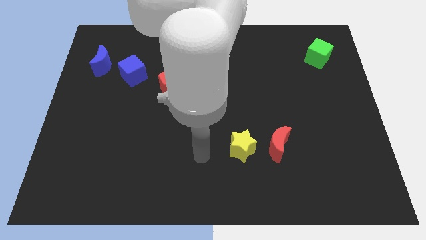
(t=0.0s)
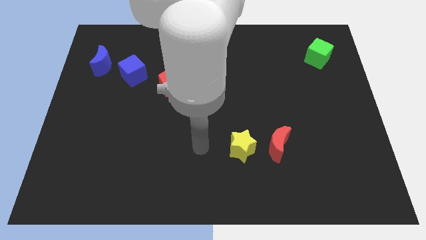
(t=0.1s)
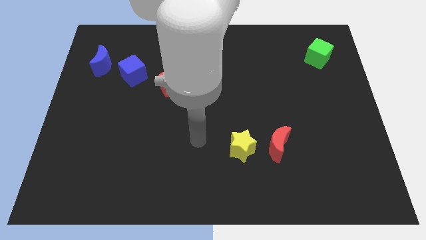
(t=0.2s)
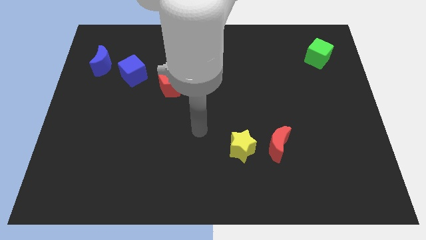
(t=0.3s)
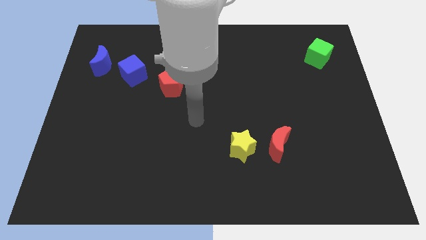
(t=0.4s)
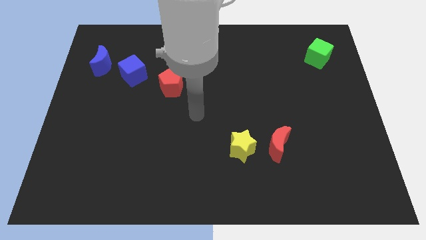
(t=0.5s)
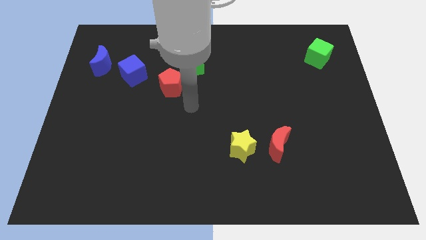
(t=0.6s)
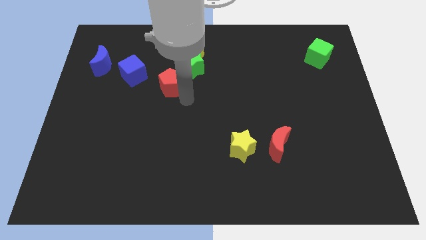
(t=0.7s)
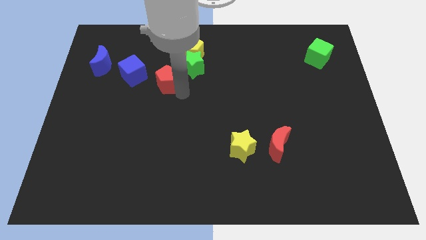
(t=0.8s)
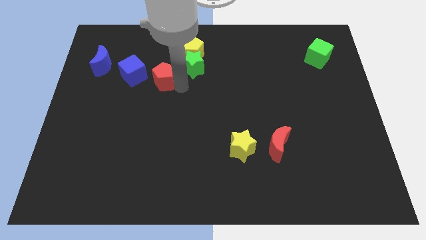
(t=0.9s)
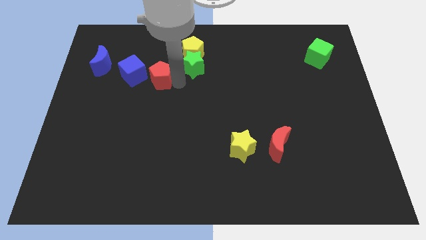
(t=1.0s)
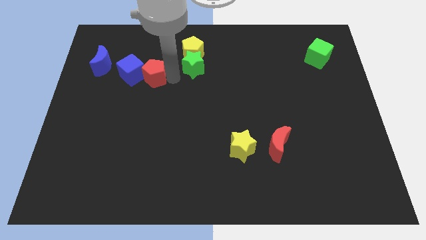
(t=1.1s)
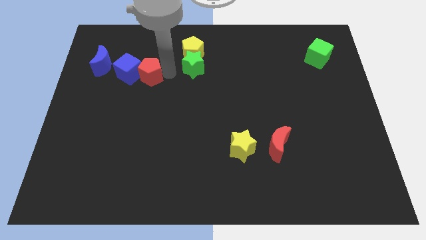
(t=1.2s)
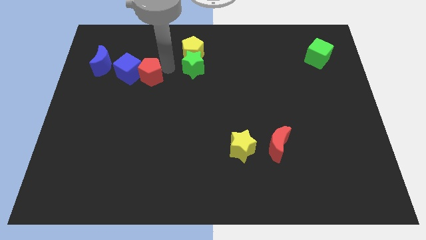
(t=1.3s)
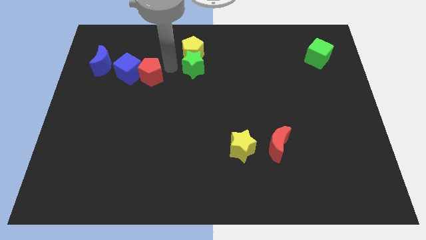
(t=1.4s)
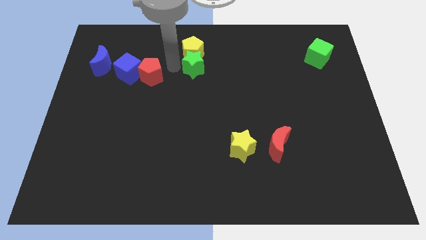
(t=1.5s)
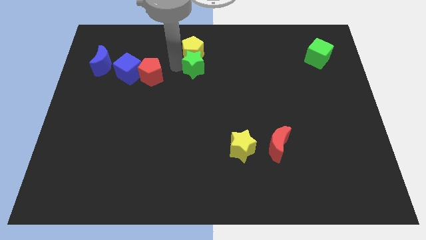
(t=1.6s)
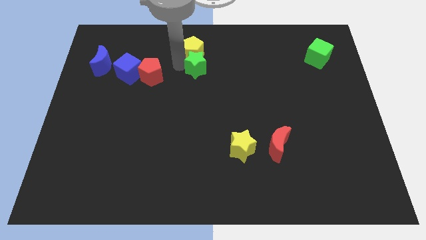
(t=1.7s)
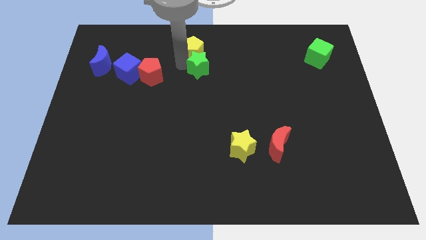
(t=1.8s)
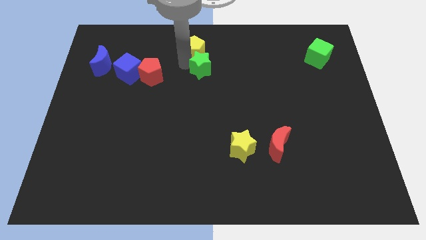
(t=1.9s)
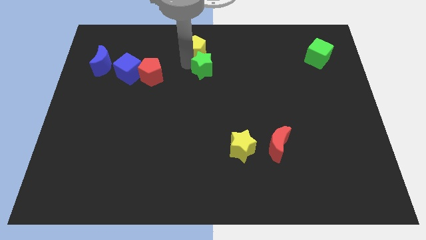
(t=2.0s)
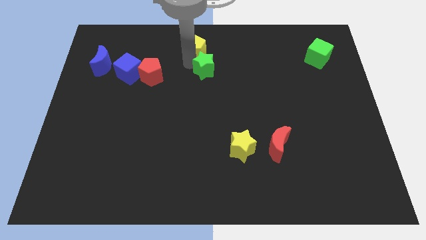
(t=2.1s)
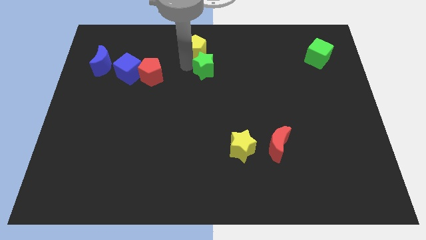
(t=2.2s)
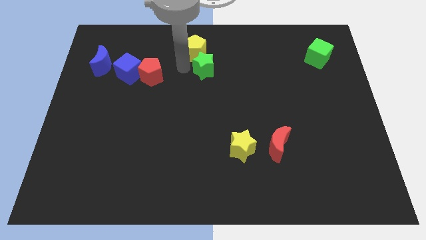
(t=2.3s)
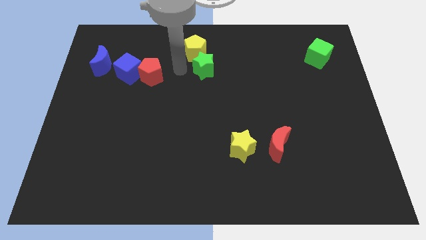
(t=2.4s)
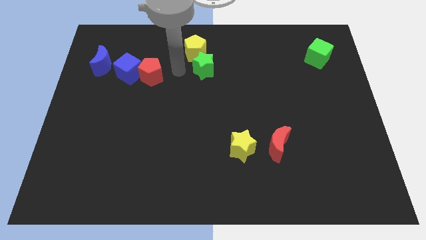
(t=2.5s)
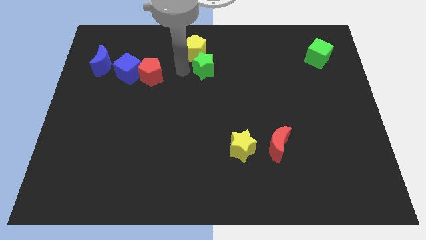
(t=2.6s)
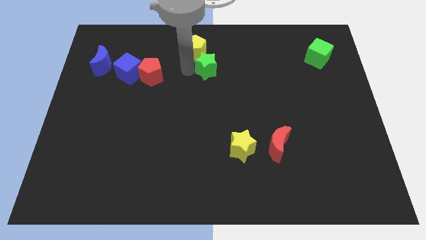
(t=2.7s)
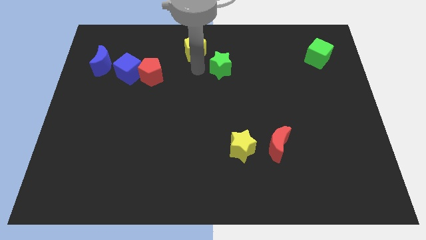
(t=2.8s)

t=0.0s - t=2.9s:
push the green star a little bit right

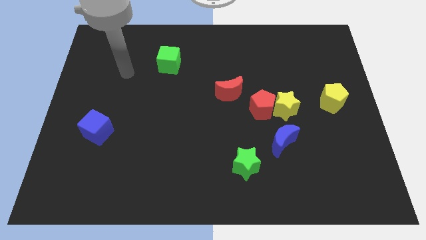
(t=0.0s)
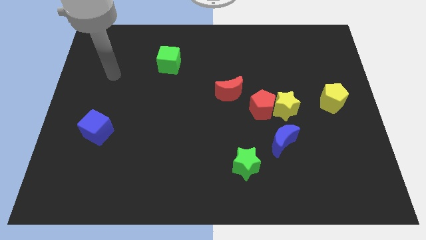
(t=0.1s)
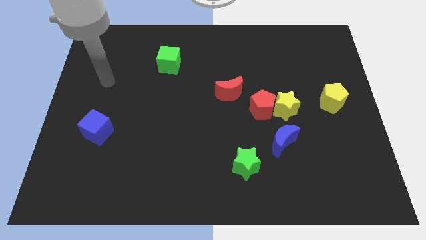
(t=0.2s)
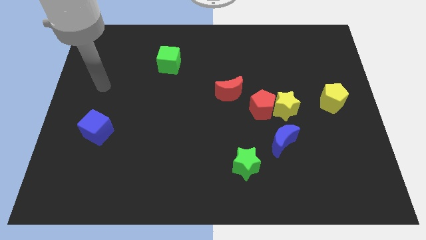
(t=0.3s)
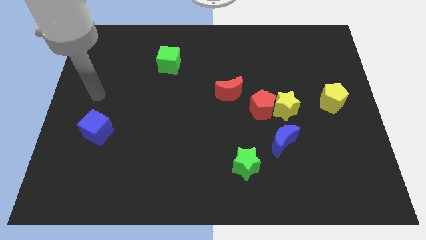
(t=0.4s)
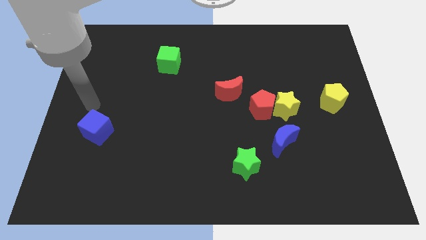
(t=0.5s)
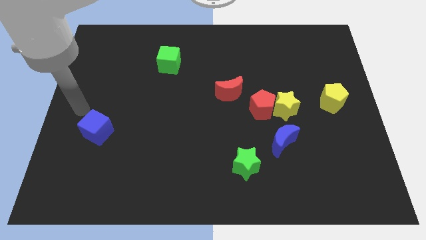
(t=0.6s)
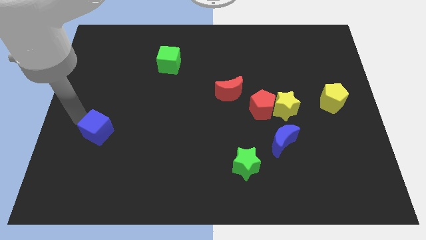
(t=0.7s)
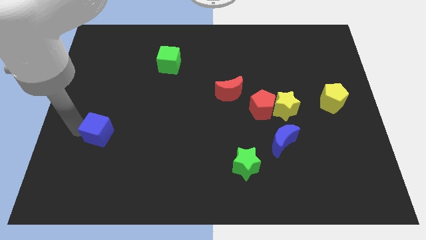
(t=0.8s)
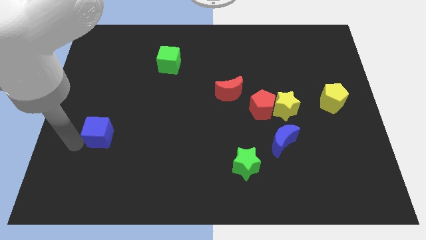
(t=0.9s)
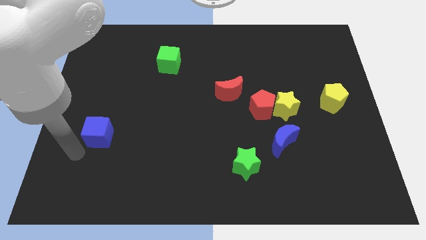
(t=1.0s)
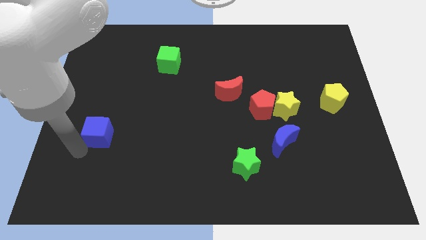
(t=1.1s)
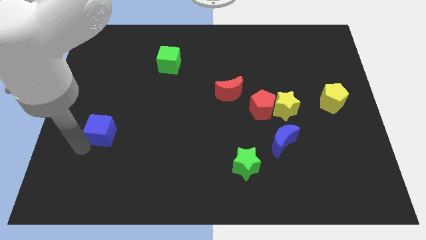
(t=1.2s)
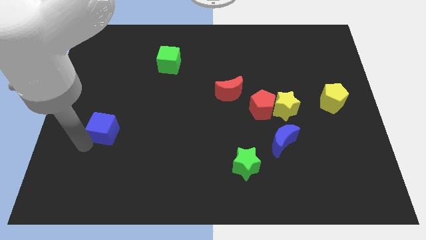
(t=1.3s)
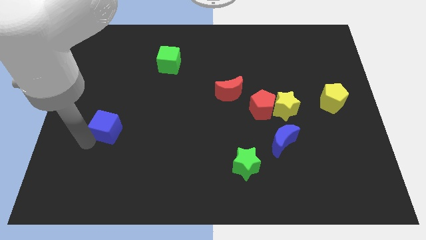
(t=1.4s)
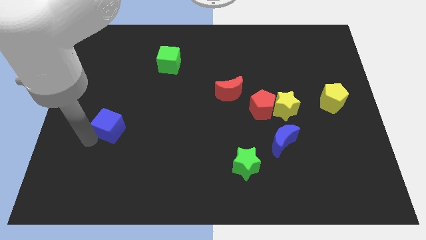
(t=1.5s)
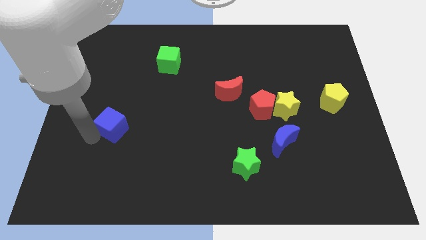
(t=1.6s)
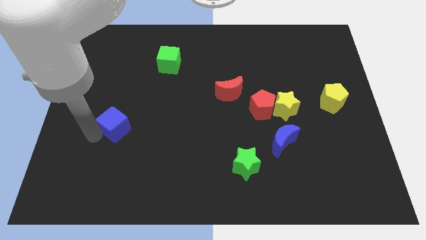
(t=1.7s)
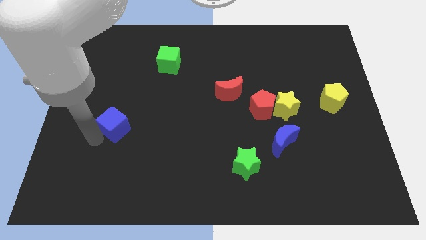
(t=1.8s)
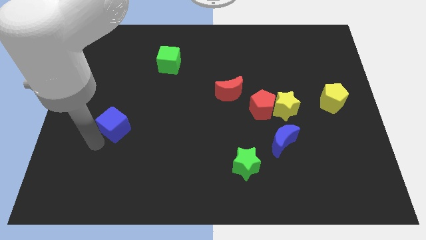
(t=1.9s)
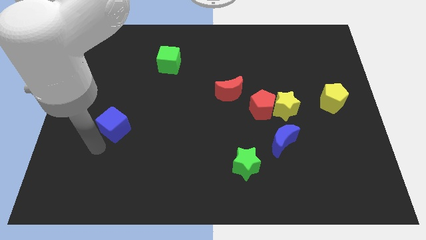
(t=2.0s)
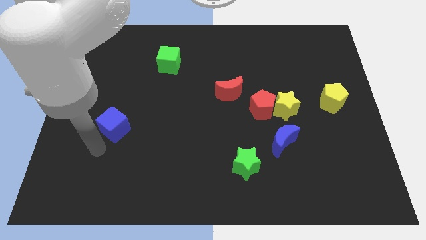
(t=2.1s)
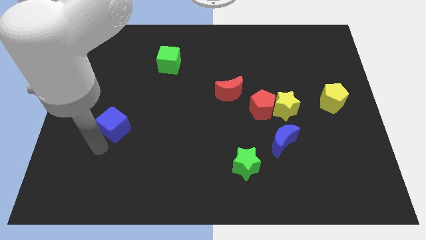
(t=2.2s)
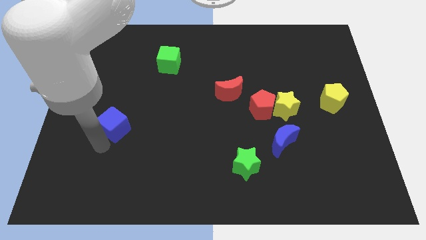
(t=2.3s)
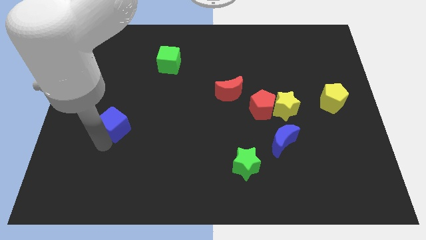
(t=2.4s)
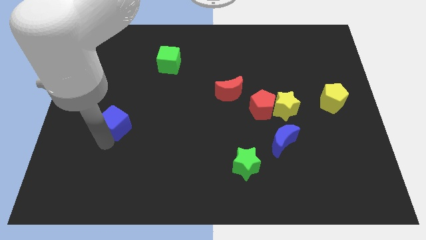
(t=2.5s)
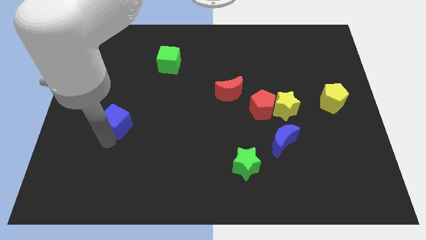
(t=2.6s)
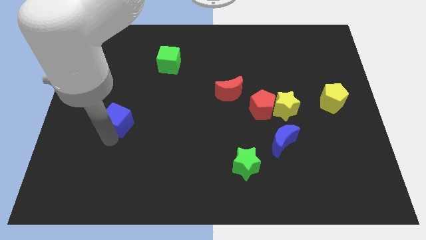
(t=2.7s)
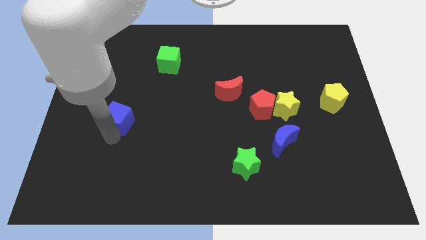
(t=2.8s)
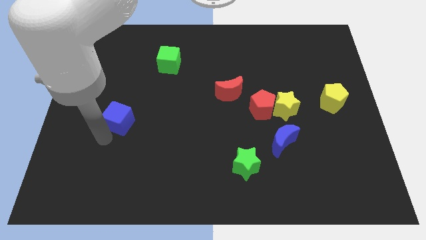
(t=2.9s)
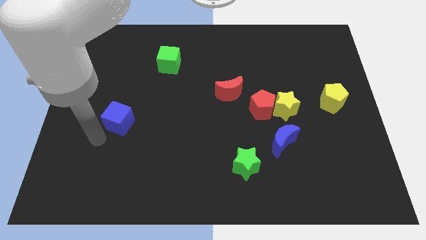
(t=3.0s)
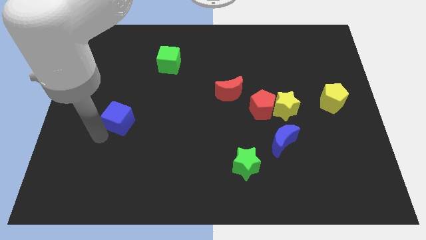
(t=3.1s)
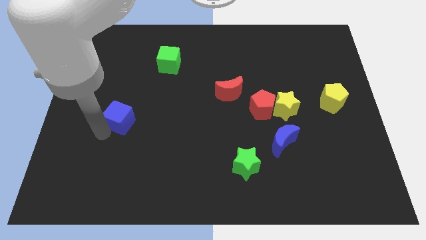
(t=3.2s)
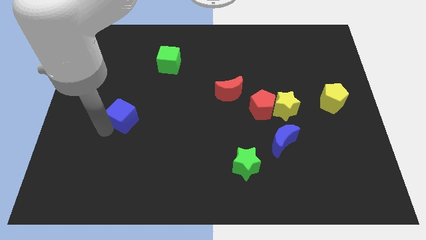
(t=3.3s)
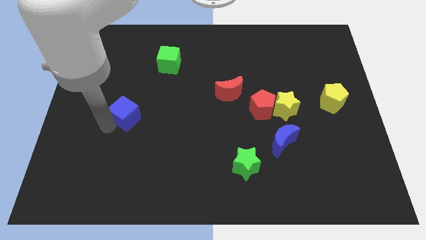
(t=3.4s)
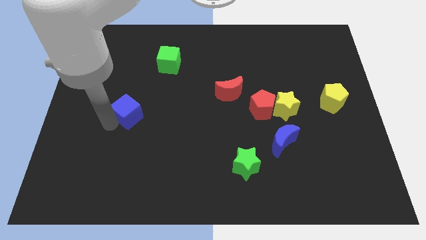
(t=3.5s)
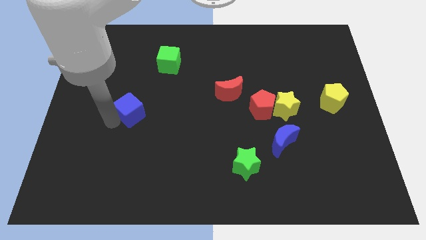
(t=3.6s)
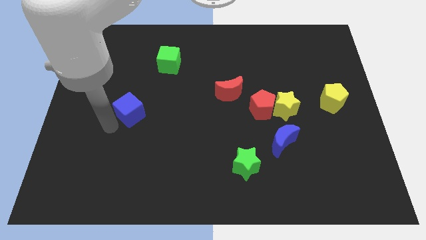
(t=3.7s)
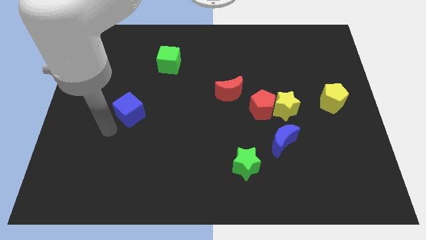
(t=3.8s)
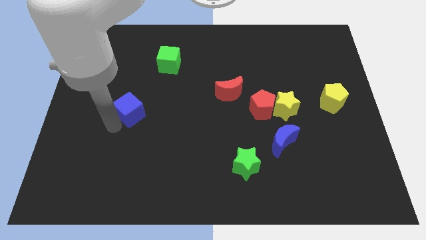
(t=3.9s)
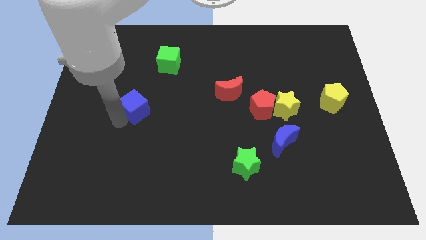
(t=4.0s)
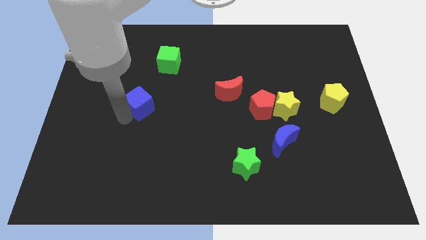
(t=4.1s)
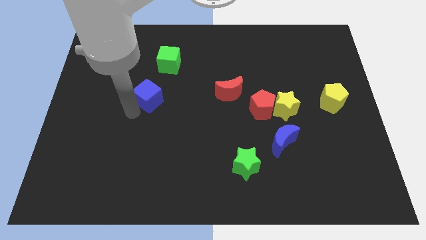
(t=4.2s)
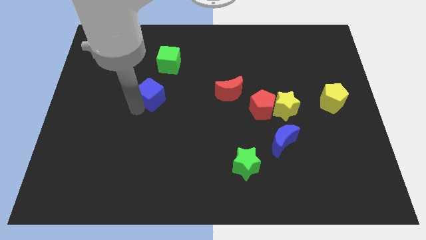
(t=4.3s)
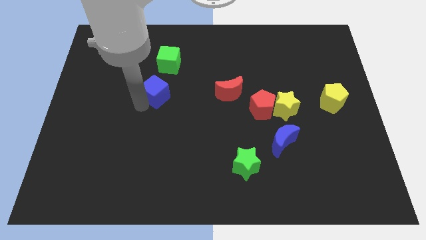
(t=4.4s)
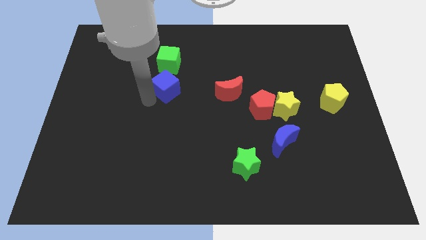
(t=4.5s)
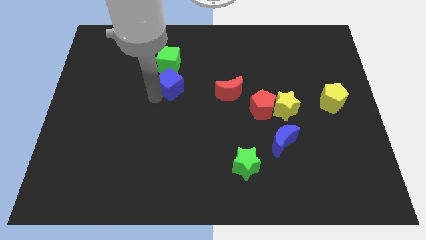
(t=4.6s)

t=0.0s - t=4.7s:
move the blue cube diagonally up and to the right

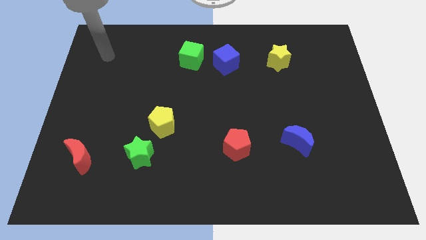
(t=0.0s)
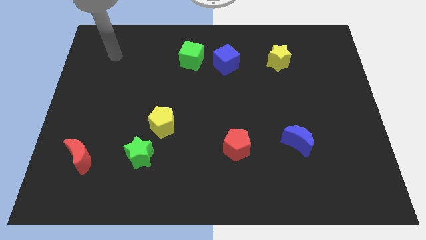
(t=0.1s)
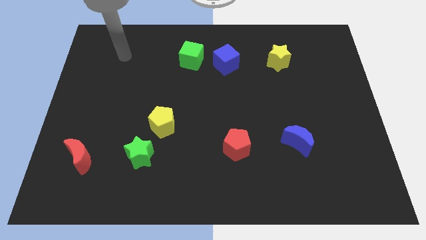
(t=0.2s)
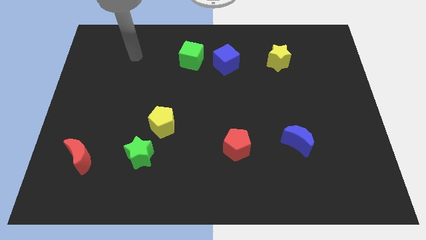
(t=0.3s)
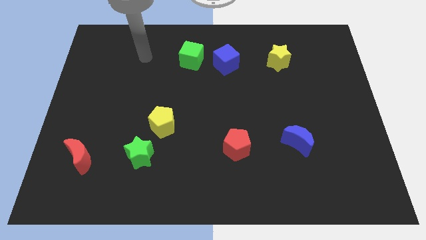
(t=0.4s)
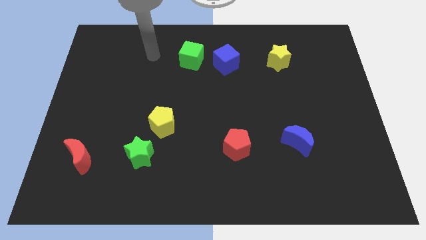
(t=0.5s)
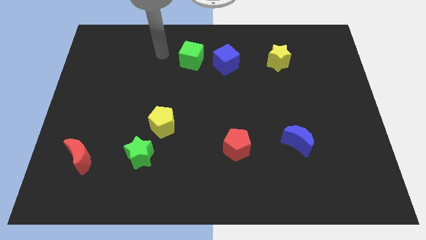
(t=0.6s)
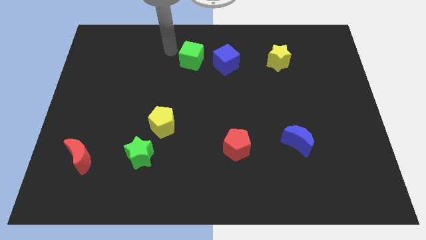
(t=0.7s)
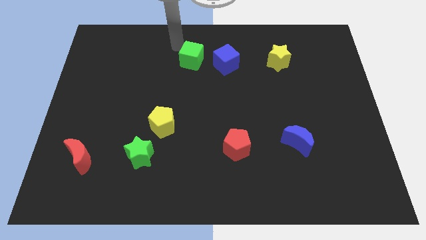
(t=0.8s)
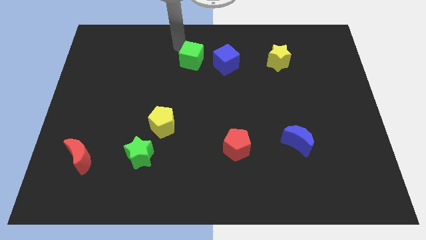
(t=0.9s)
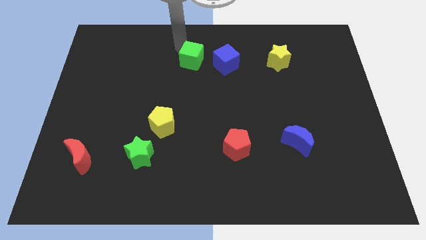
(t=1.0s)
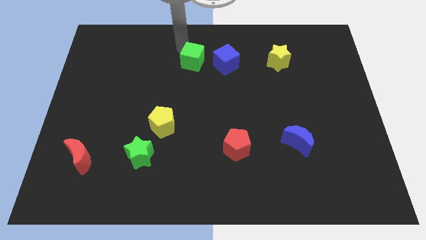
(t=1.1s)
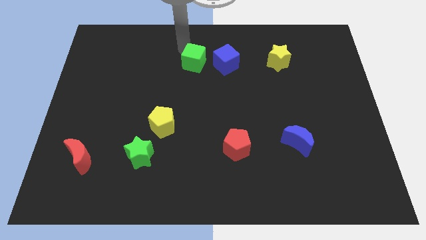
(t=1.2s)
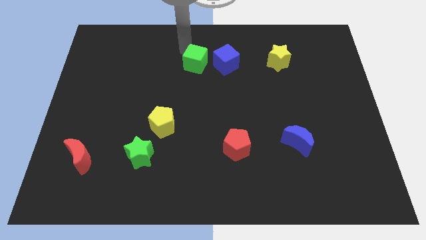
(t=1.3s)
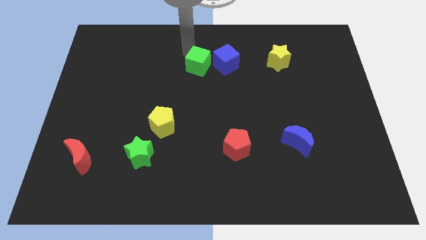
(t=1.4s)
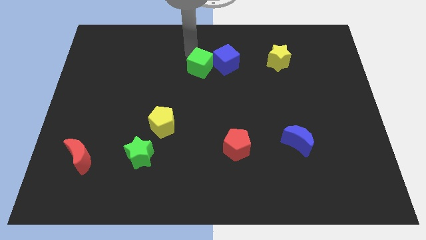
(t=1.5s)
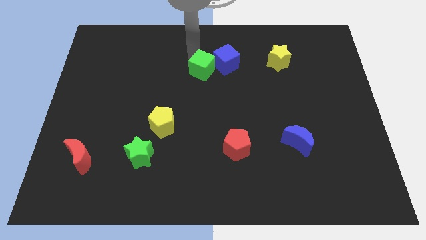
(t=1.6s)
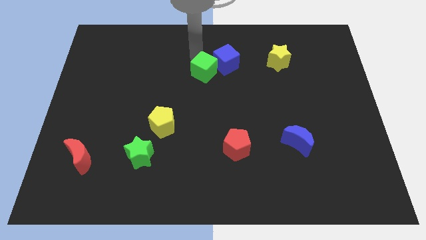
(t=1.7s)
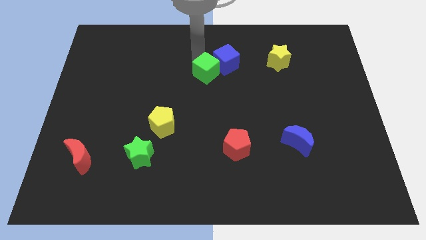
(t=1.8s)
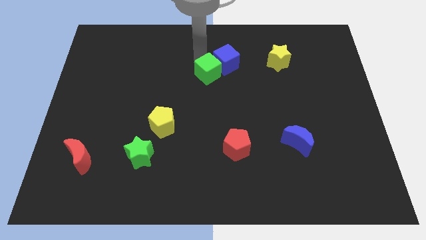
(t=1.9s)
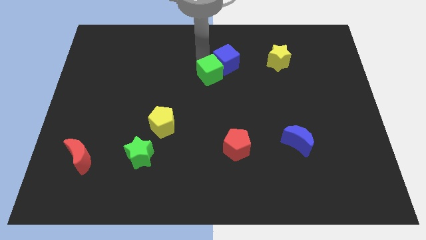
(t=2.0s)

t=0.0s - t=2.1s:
slightly slide the green cube downwards and right
